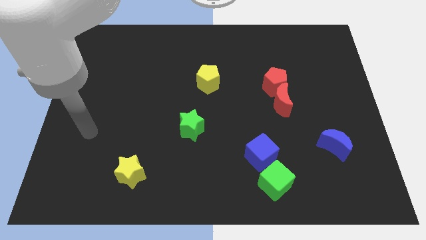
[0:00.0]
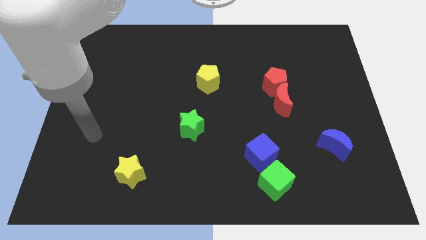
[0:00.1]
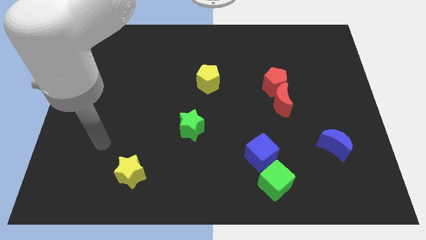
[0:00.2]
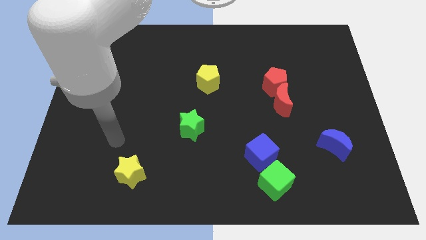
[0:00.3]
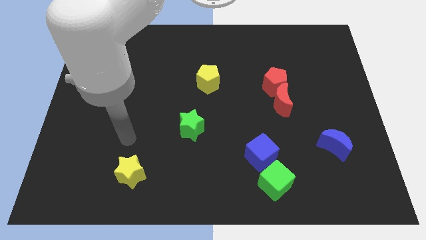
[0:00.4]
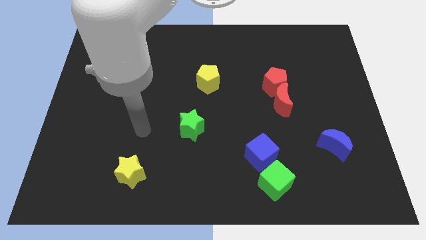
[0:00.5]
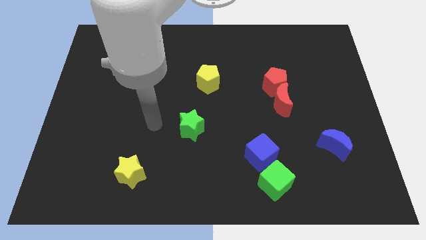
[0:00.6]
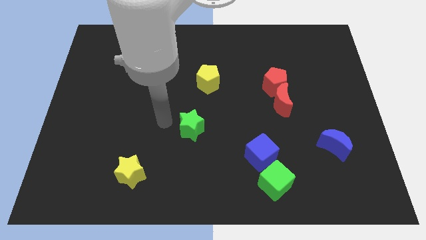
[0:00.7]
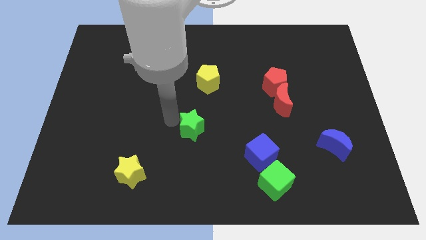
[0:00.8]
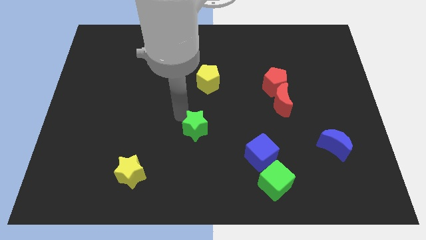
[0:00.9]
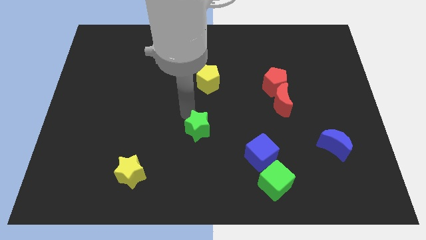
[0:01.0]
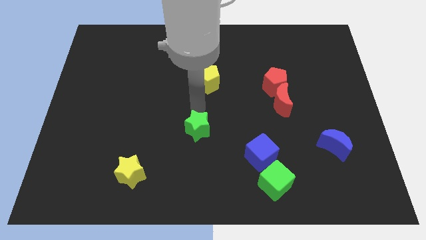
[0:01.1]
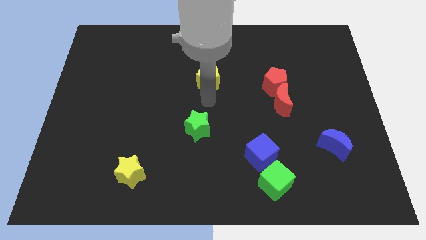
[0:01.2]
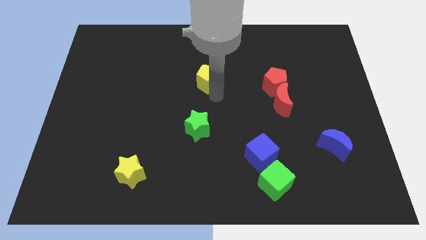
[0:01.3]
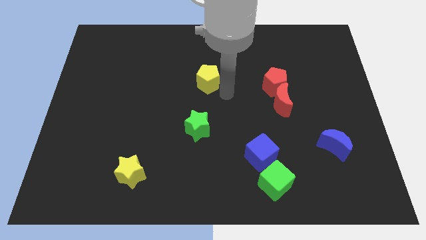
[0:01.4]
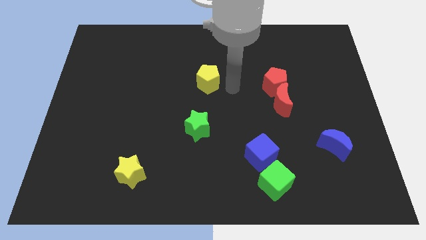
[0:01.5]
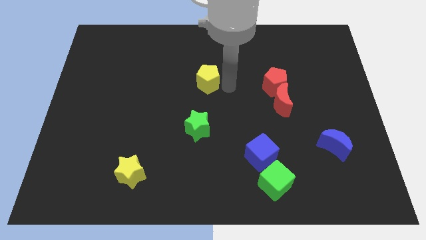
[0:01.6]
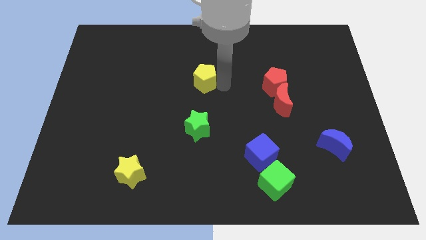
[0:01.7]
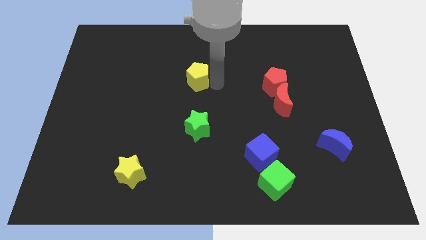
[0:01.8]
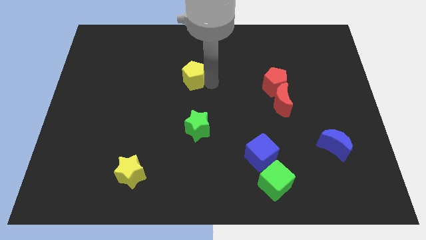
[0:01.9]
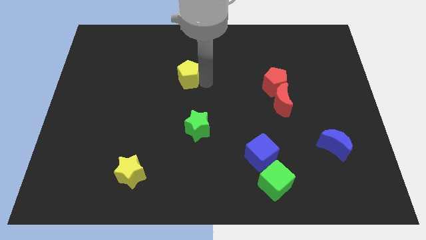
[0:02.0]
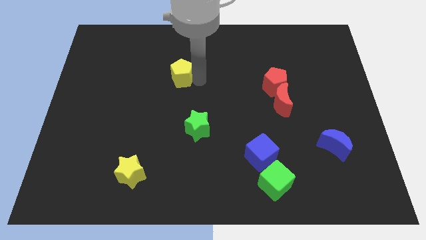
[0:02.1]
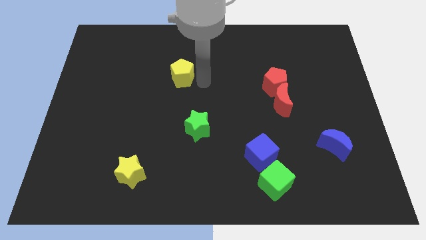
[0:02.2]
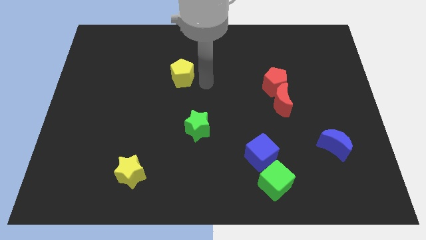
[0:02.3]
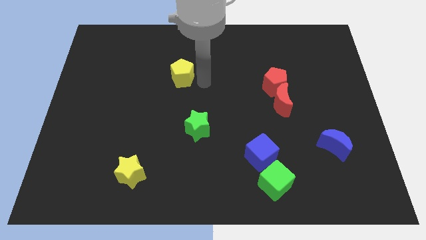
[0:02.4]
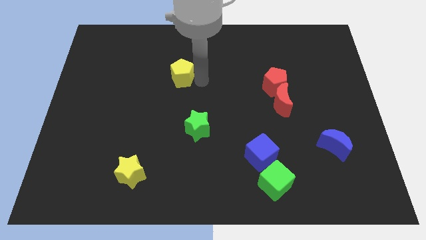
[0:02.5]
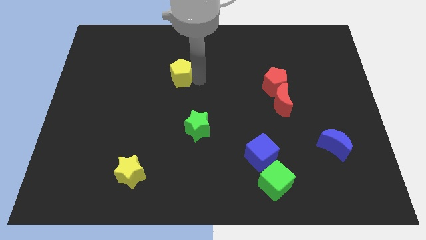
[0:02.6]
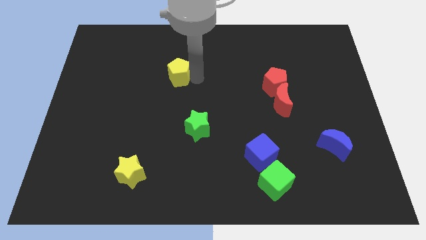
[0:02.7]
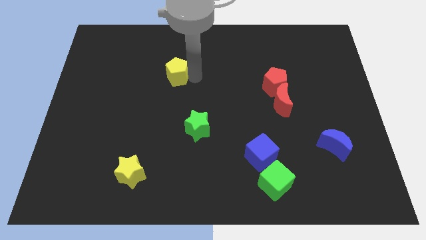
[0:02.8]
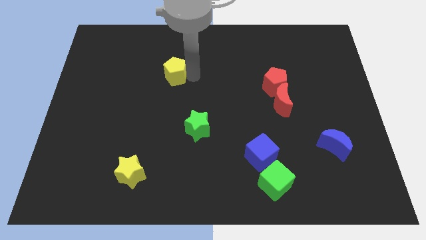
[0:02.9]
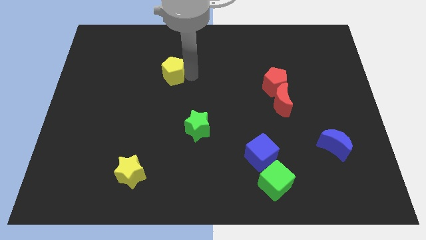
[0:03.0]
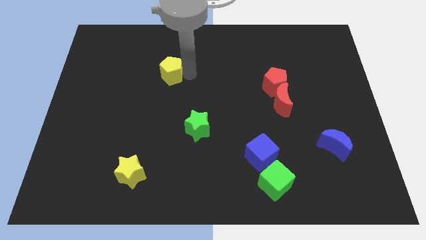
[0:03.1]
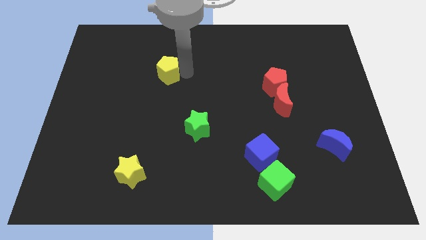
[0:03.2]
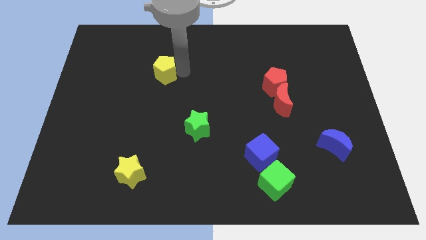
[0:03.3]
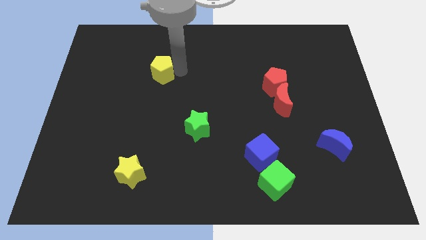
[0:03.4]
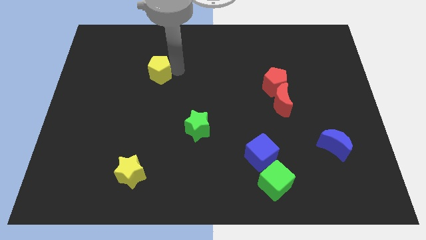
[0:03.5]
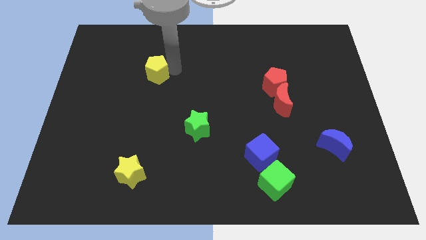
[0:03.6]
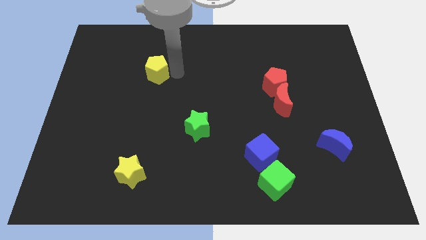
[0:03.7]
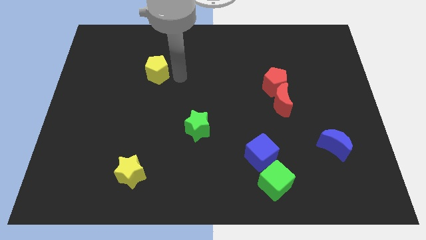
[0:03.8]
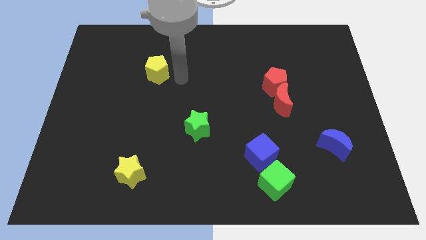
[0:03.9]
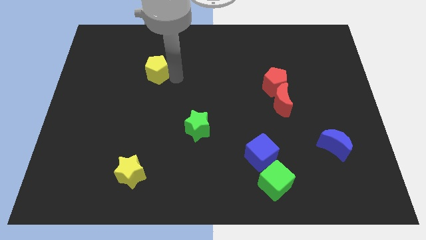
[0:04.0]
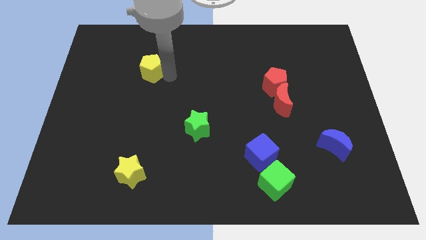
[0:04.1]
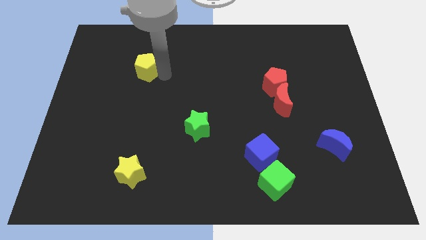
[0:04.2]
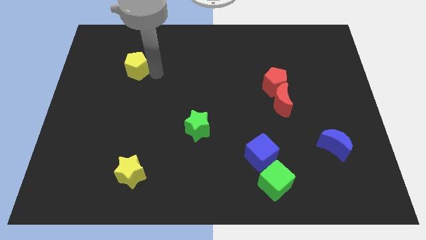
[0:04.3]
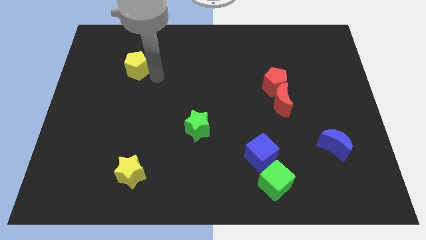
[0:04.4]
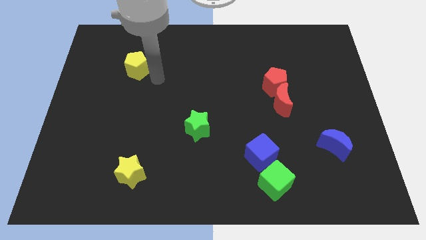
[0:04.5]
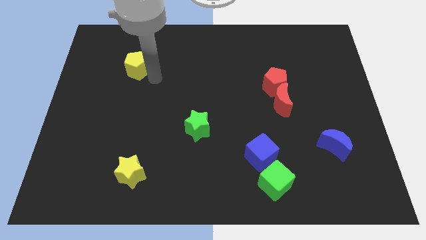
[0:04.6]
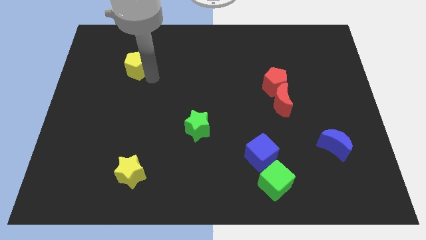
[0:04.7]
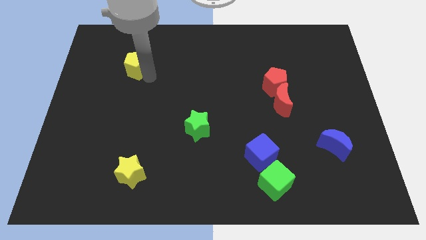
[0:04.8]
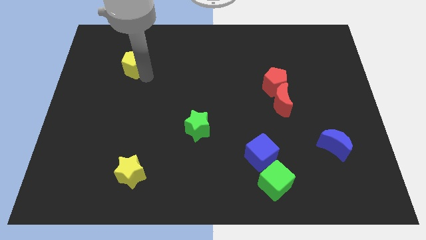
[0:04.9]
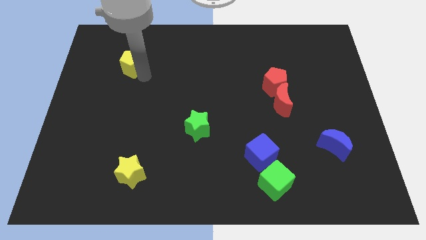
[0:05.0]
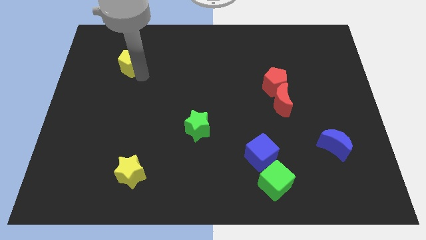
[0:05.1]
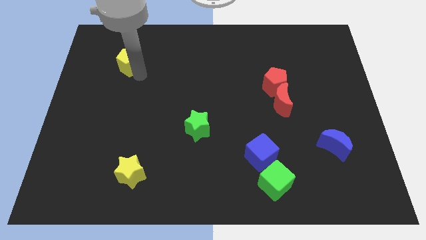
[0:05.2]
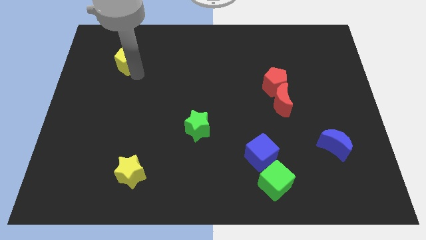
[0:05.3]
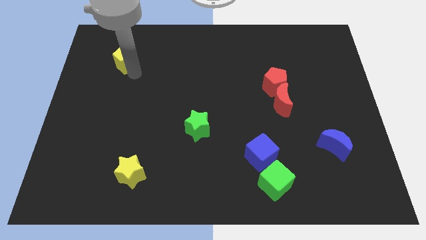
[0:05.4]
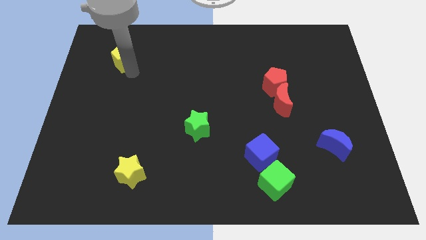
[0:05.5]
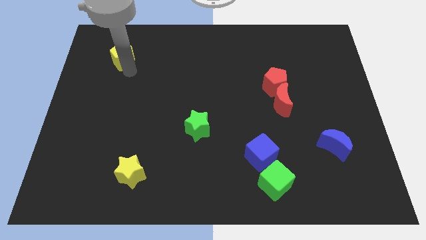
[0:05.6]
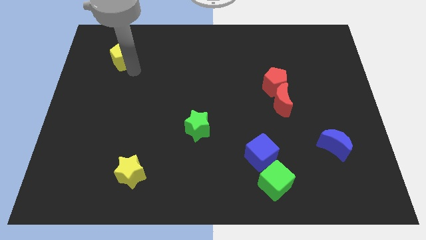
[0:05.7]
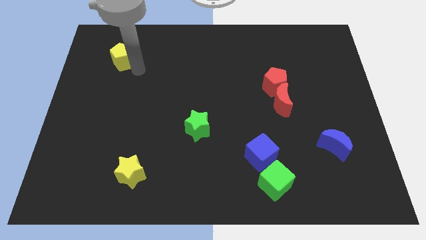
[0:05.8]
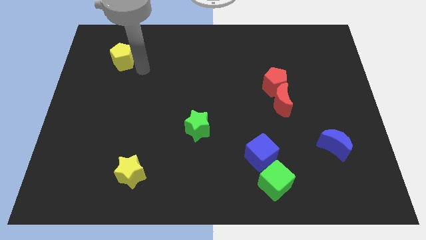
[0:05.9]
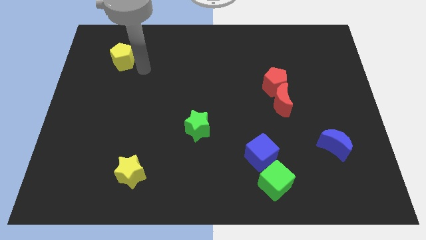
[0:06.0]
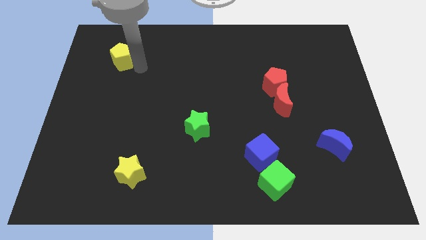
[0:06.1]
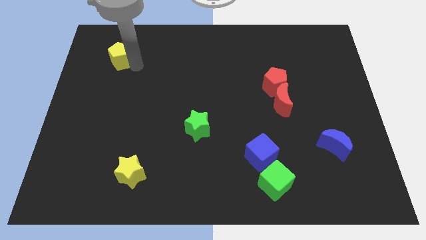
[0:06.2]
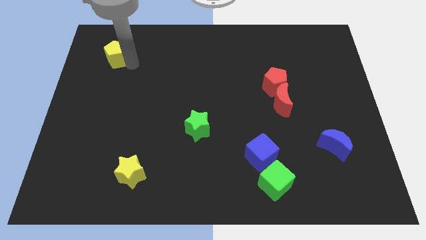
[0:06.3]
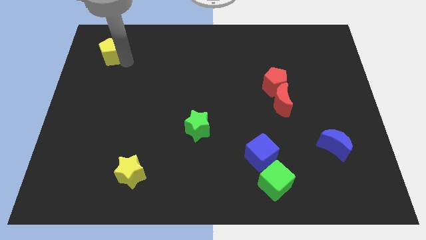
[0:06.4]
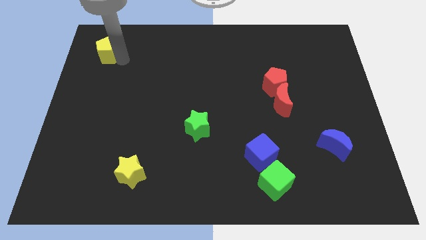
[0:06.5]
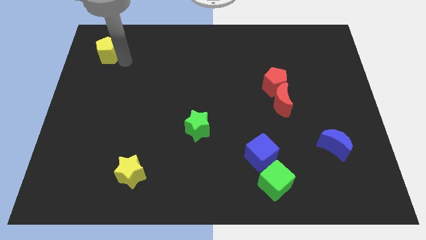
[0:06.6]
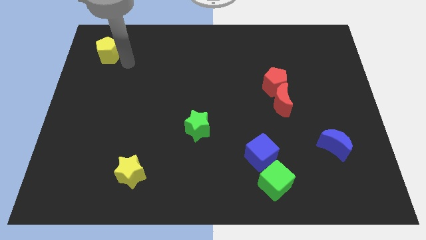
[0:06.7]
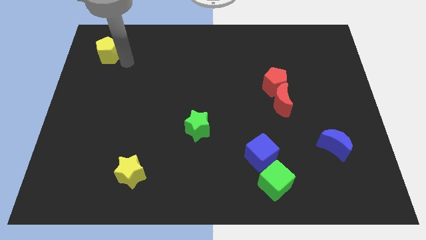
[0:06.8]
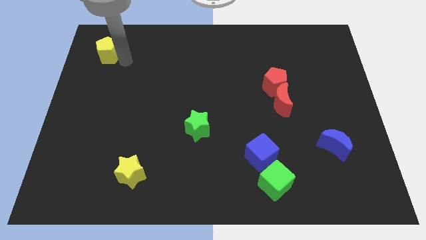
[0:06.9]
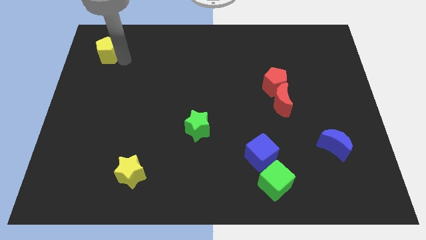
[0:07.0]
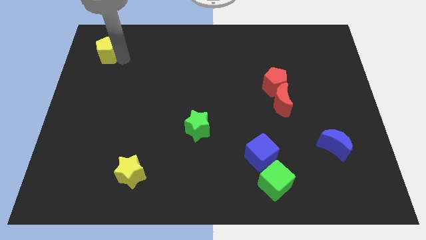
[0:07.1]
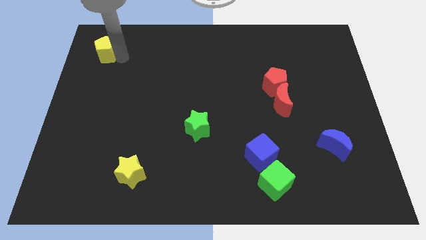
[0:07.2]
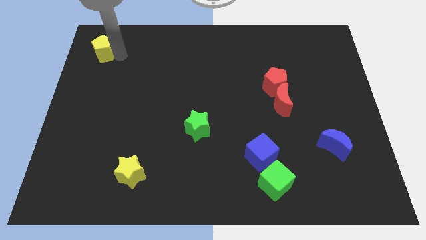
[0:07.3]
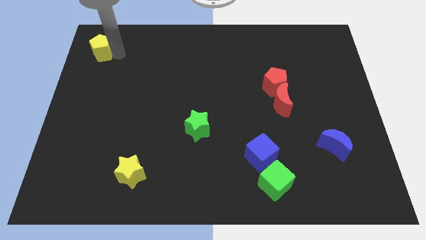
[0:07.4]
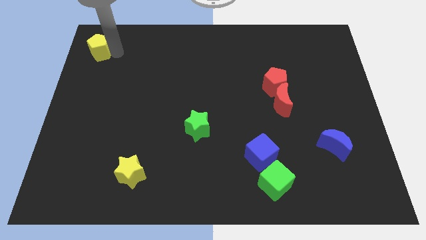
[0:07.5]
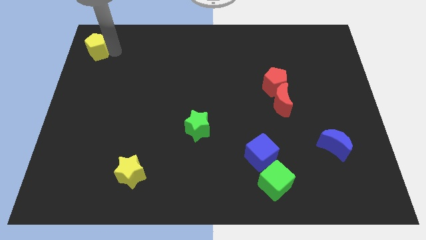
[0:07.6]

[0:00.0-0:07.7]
move the yellow pentagon to the top left
